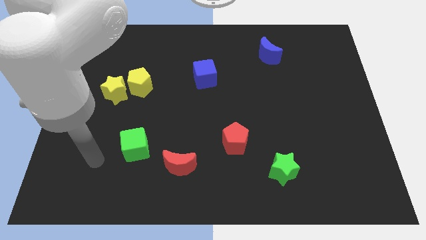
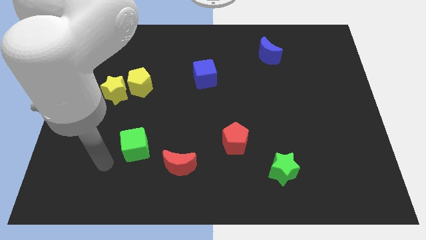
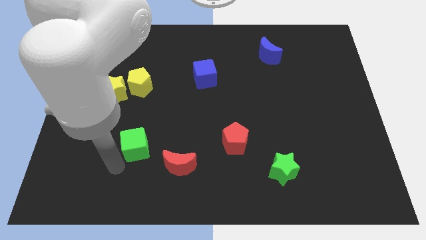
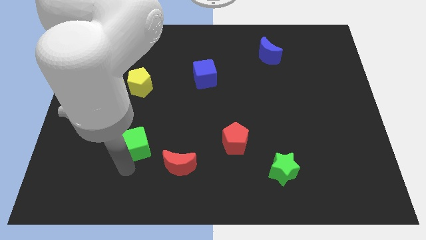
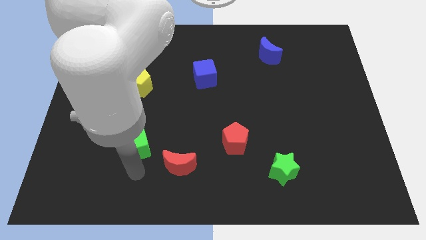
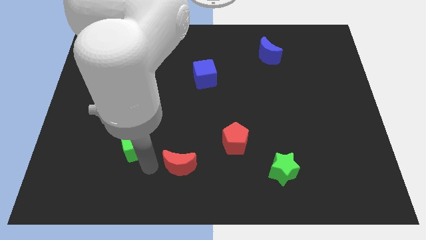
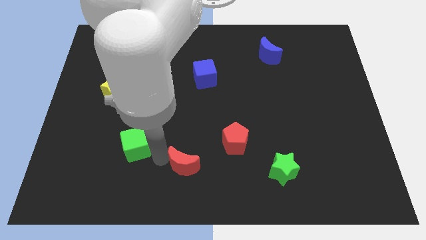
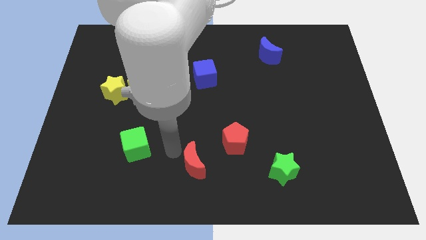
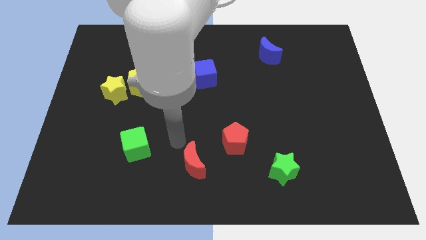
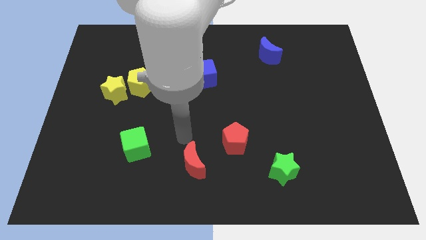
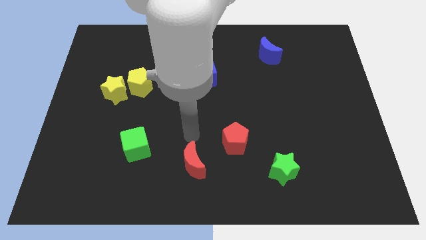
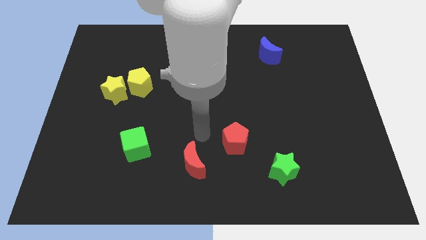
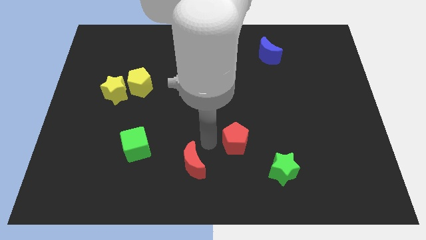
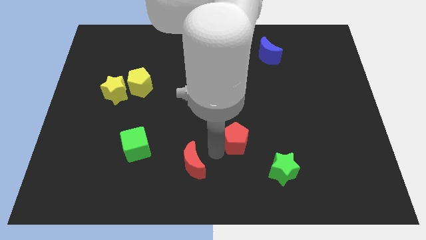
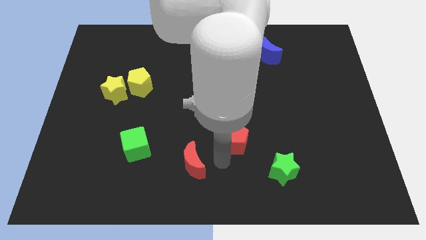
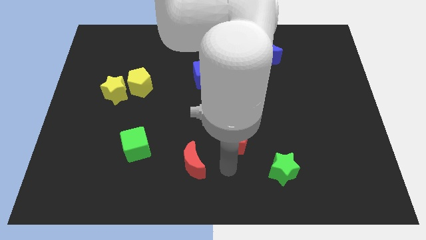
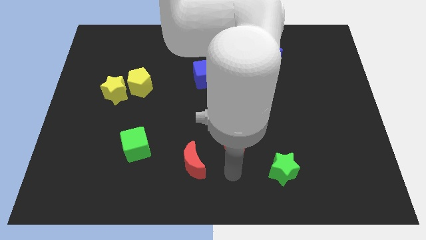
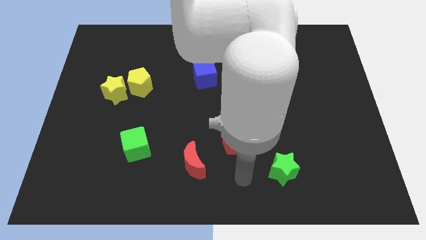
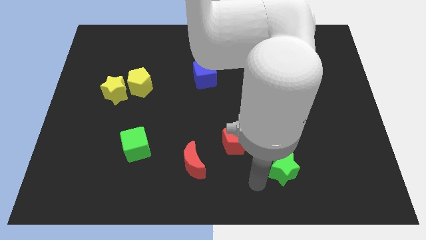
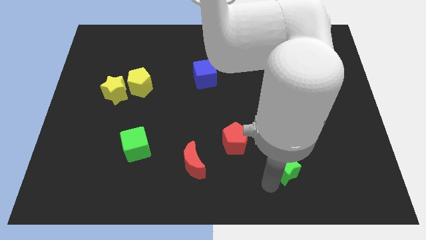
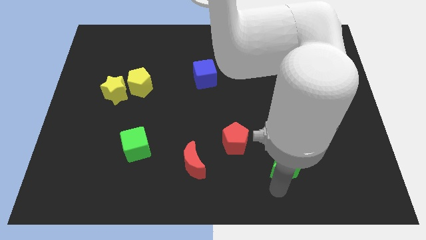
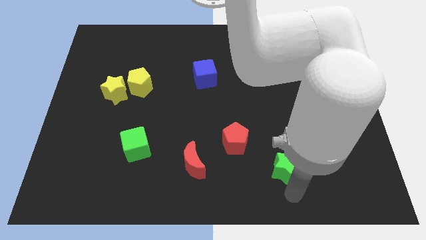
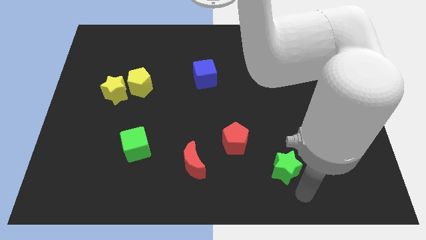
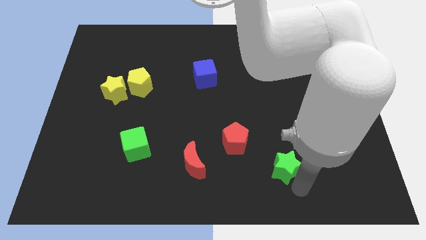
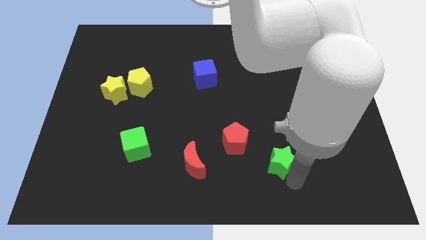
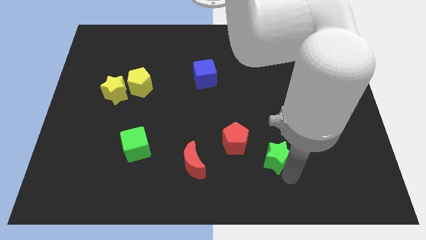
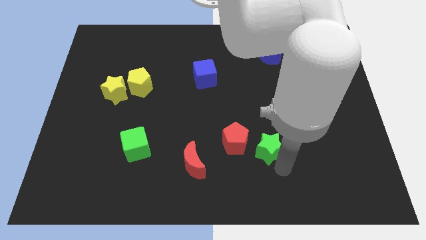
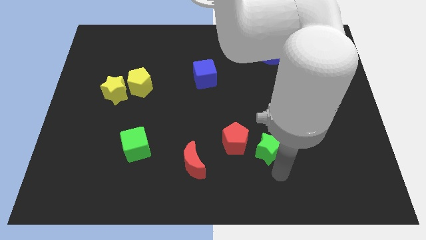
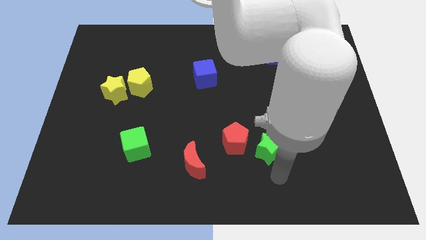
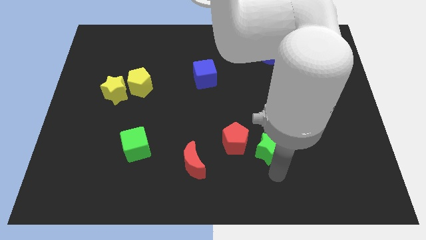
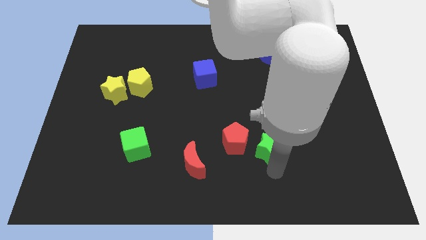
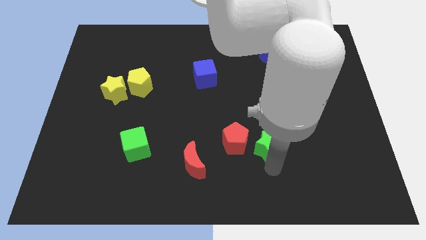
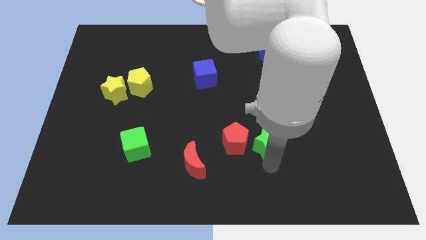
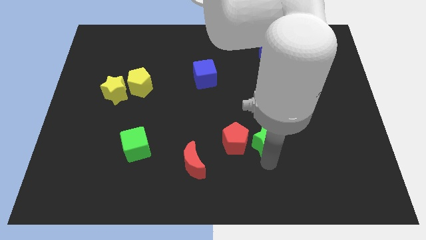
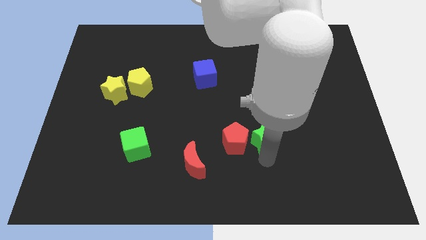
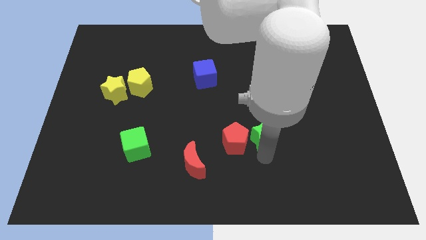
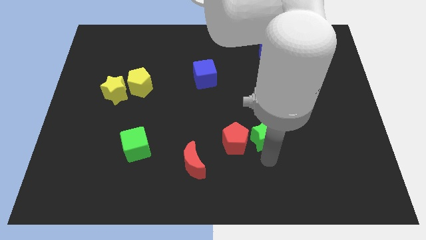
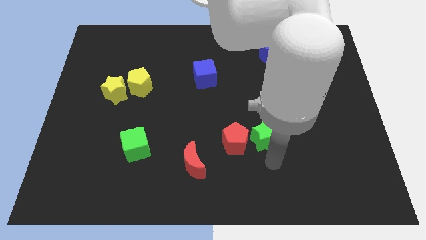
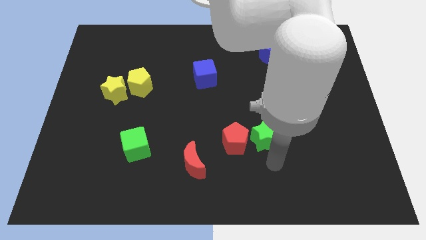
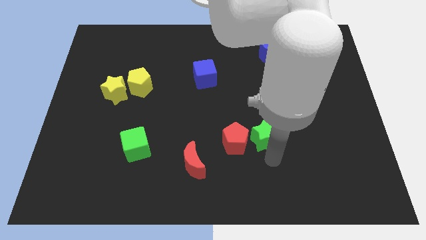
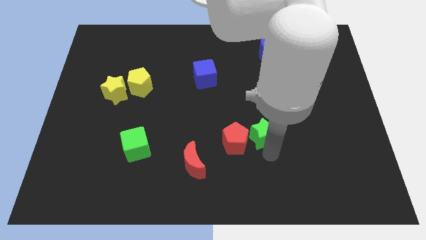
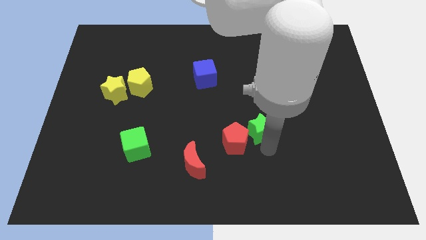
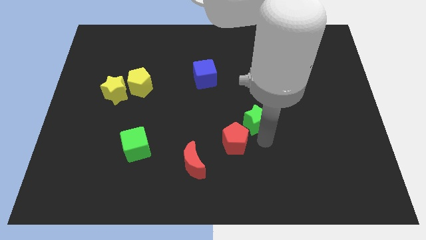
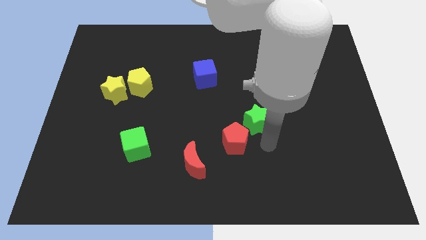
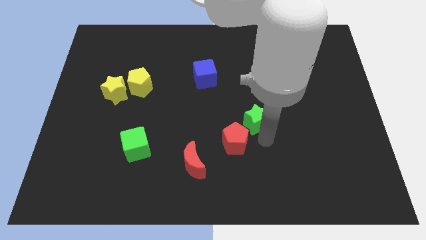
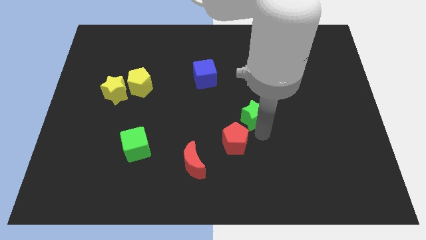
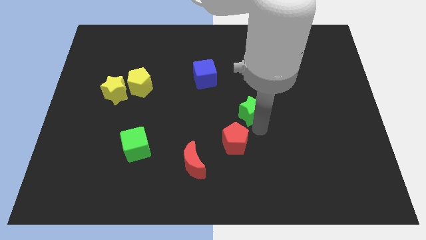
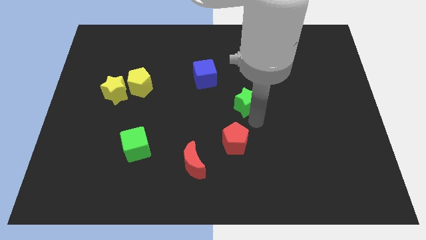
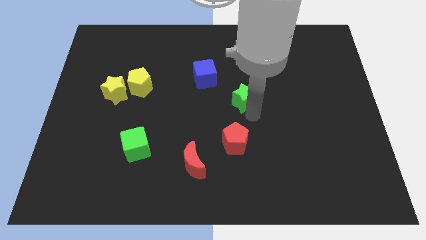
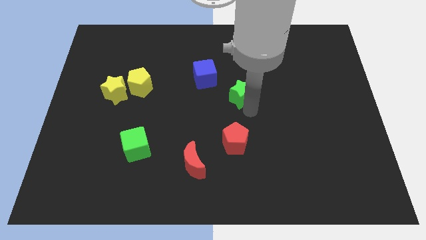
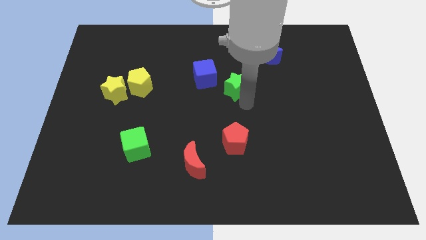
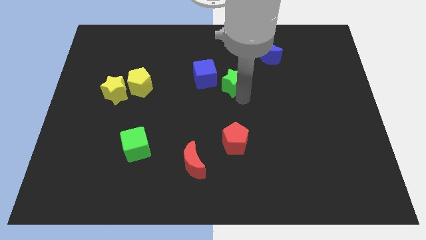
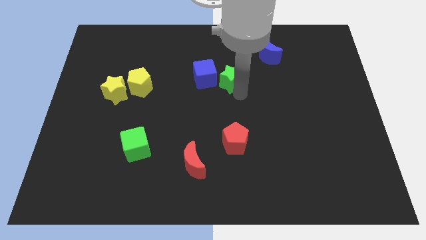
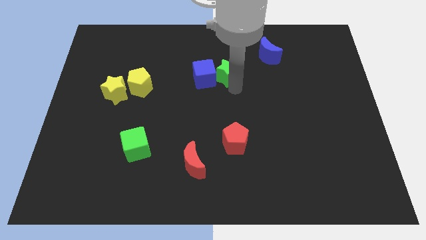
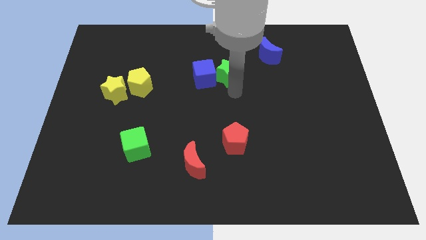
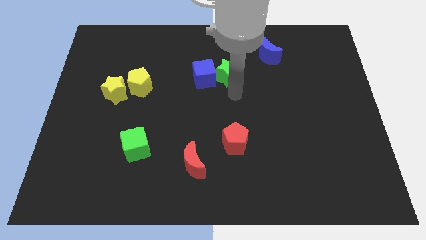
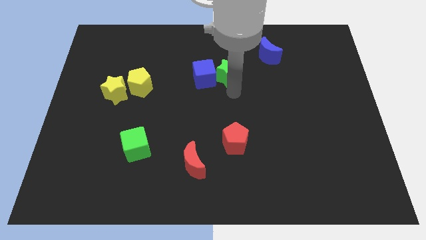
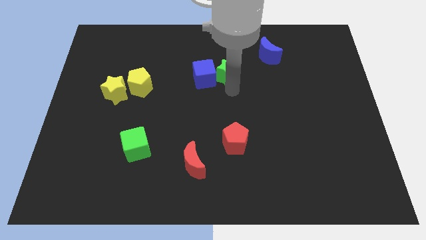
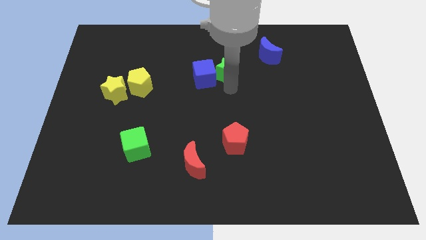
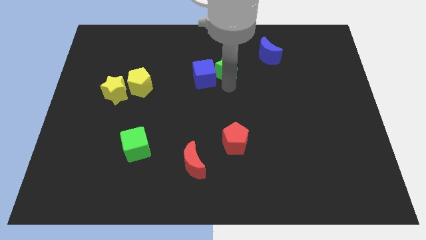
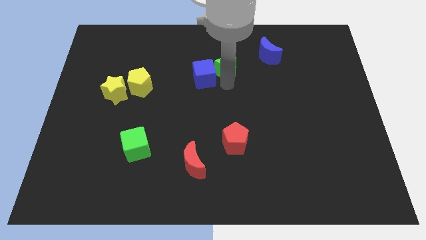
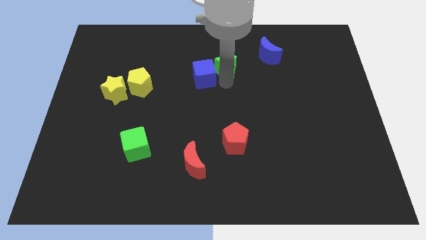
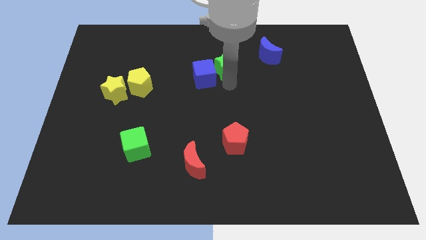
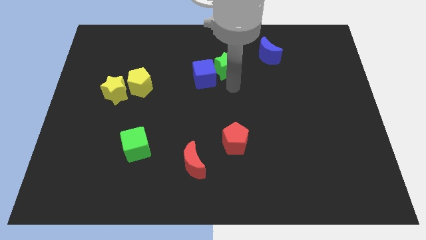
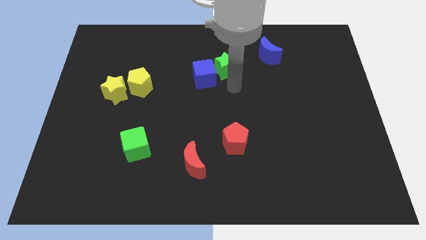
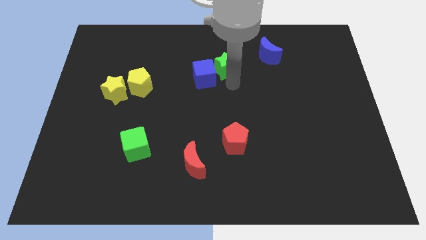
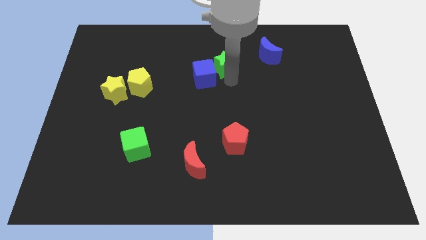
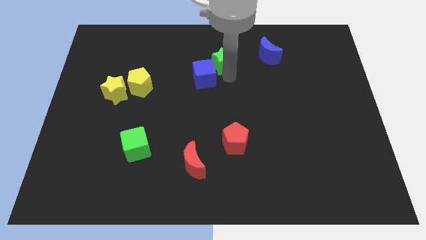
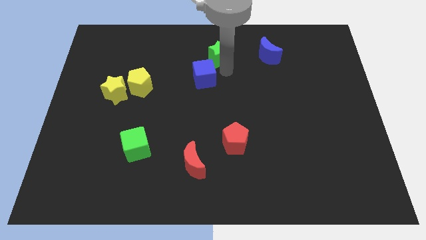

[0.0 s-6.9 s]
push the green star to the towards your base
